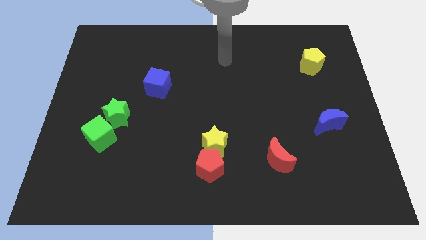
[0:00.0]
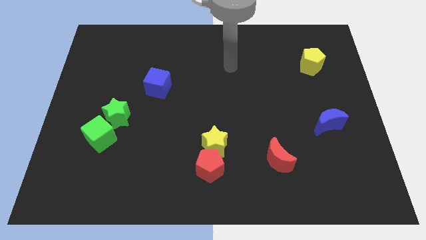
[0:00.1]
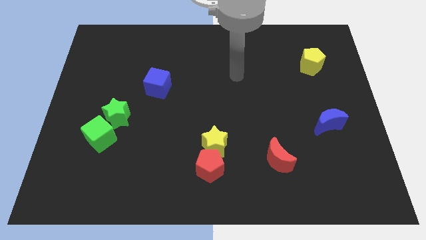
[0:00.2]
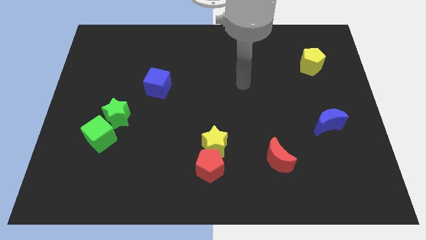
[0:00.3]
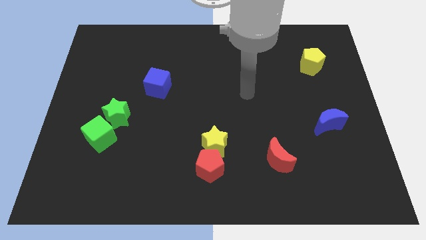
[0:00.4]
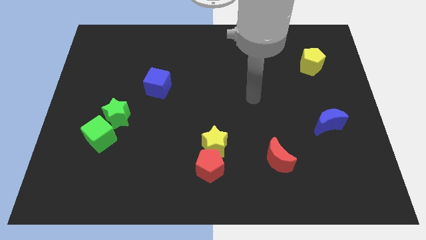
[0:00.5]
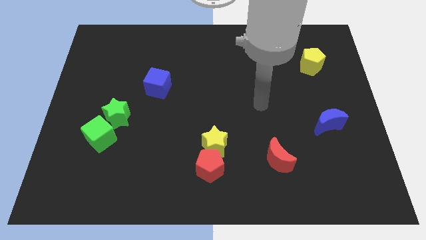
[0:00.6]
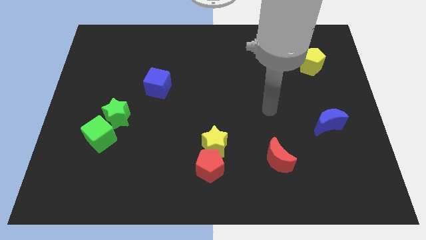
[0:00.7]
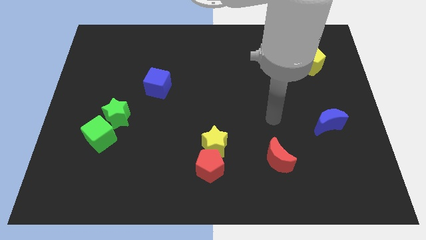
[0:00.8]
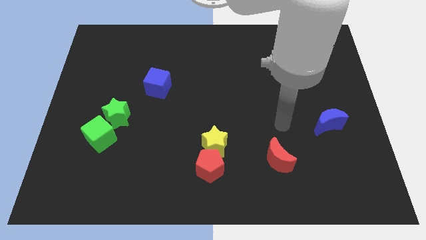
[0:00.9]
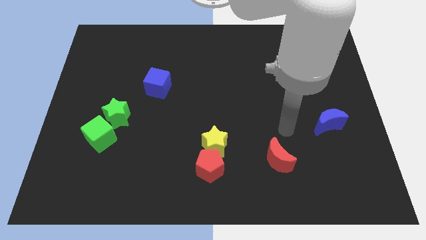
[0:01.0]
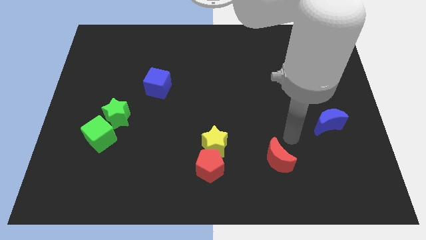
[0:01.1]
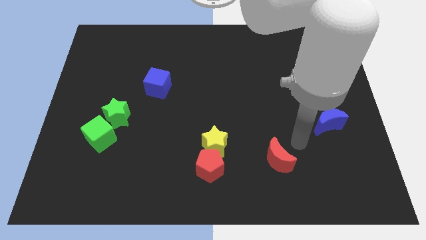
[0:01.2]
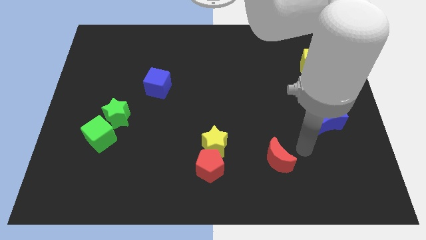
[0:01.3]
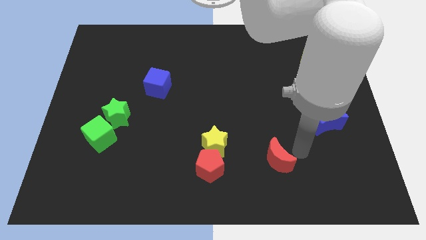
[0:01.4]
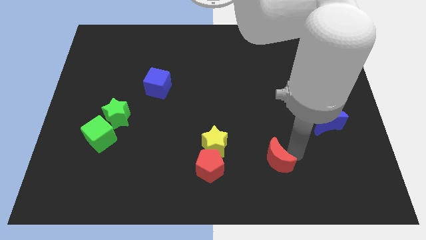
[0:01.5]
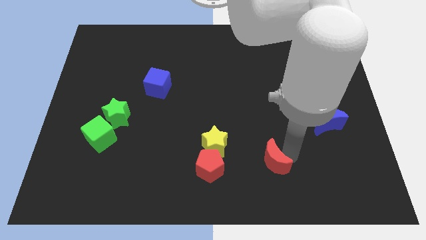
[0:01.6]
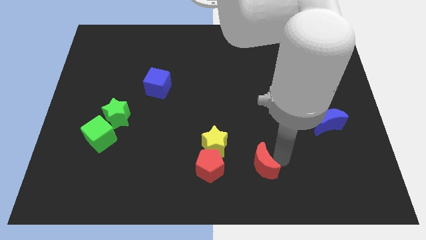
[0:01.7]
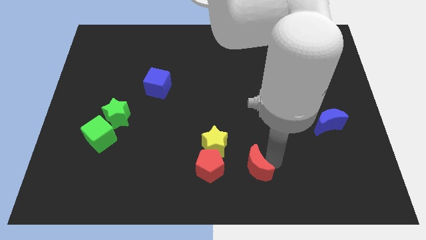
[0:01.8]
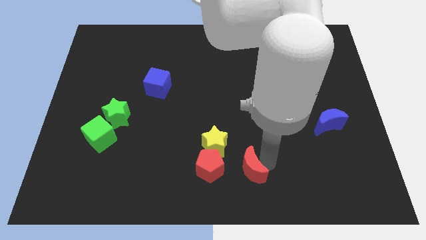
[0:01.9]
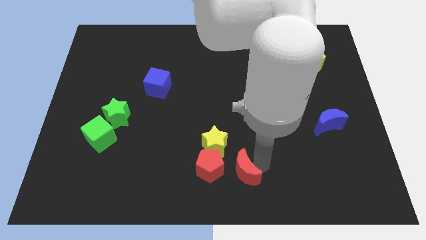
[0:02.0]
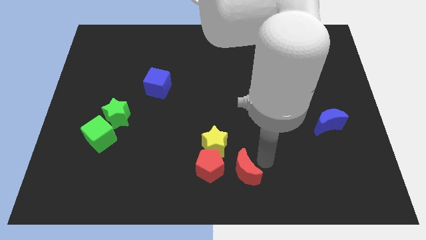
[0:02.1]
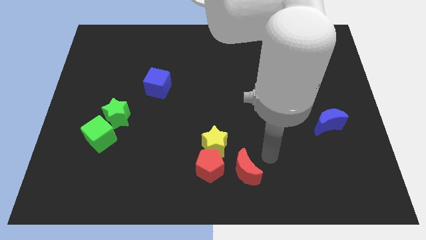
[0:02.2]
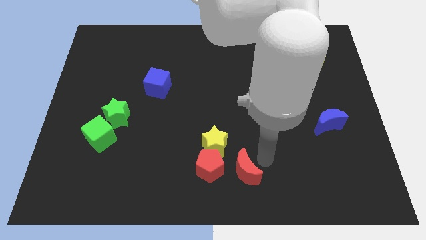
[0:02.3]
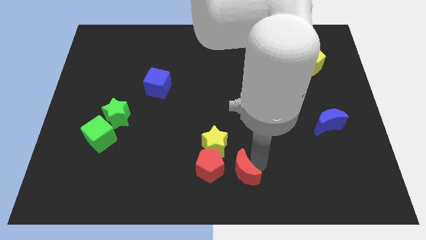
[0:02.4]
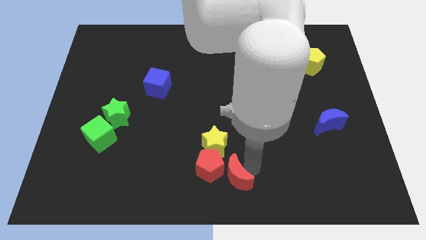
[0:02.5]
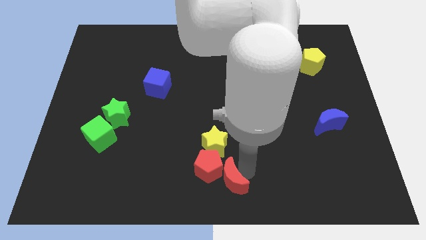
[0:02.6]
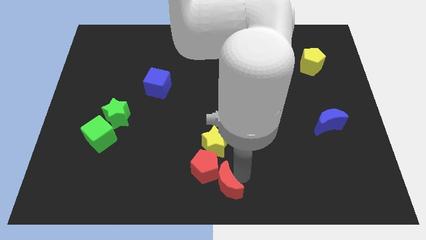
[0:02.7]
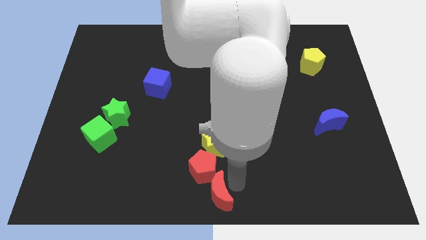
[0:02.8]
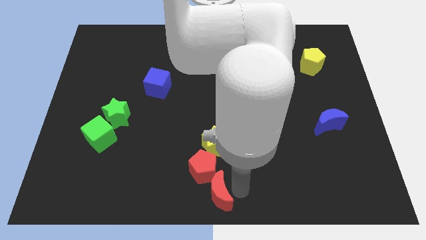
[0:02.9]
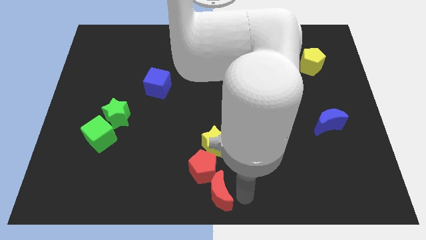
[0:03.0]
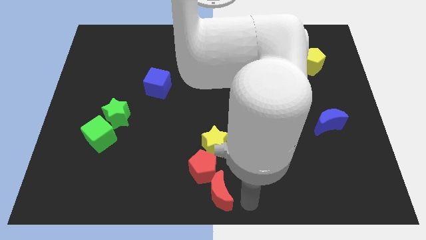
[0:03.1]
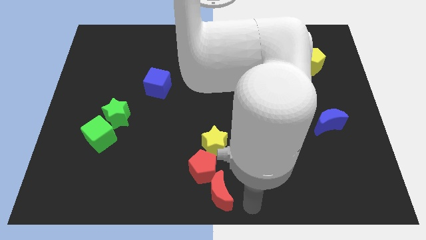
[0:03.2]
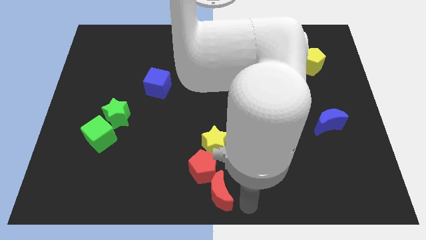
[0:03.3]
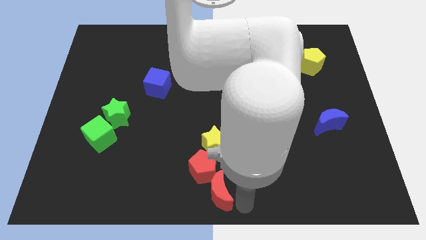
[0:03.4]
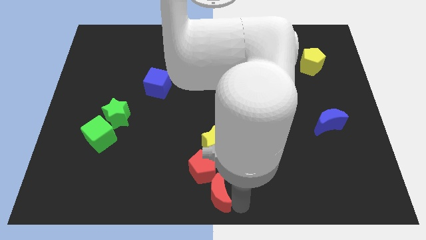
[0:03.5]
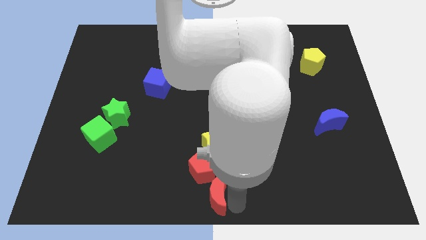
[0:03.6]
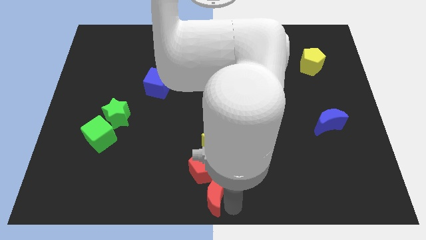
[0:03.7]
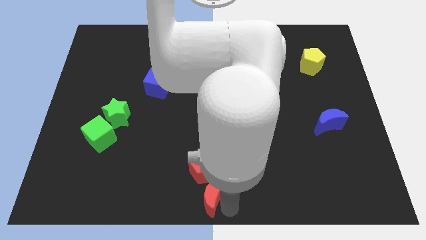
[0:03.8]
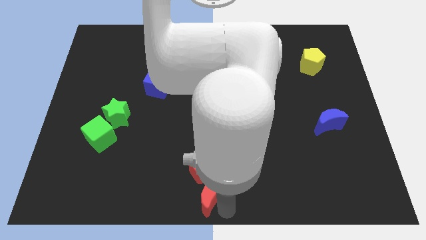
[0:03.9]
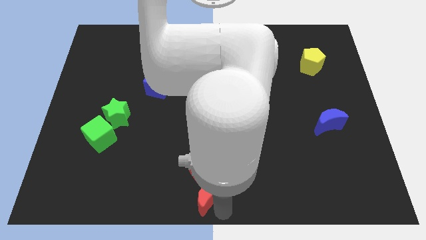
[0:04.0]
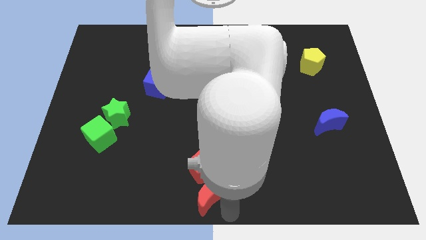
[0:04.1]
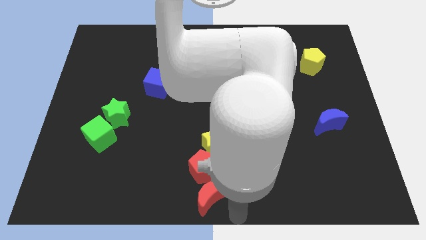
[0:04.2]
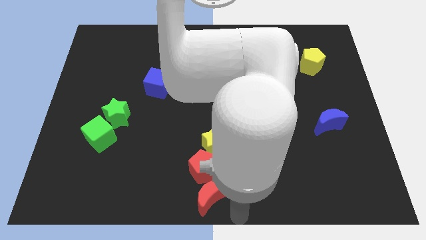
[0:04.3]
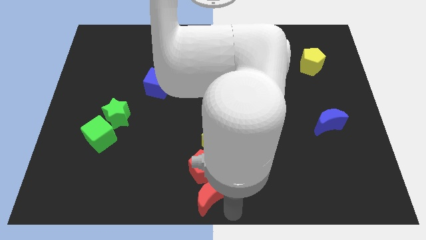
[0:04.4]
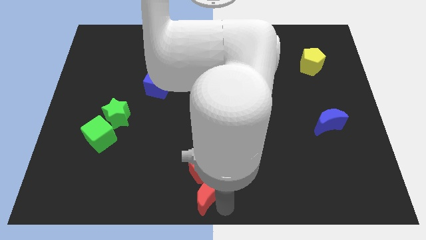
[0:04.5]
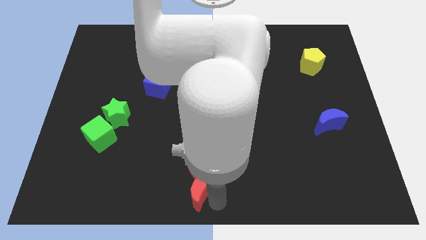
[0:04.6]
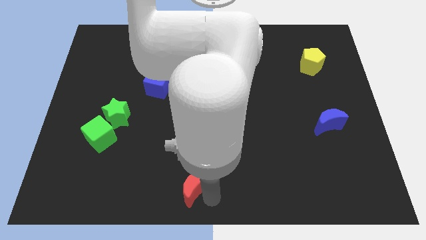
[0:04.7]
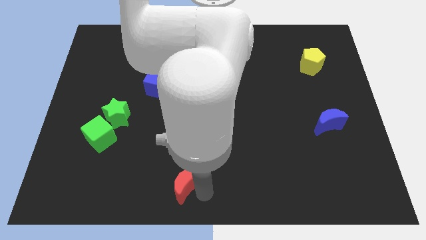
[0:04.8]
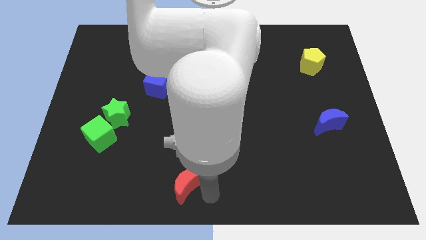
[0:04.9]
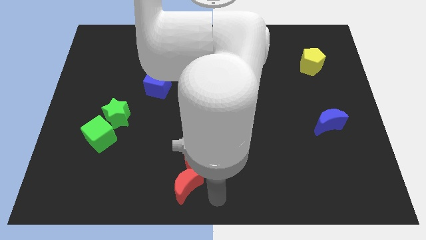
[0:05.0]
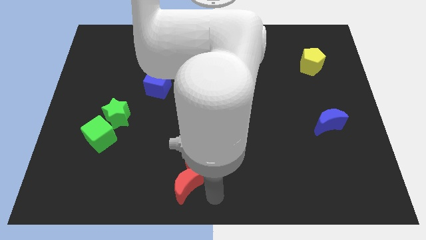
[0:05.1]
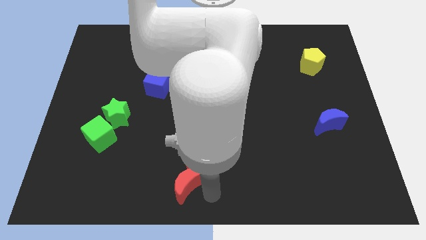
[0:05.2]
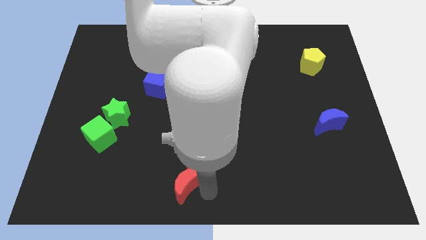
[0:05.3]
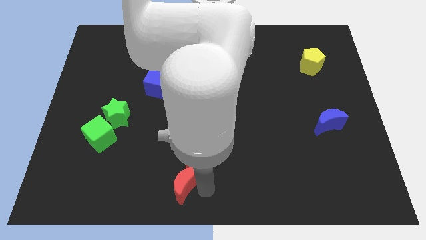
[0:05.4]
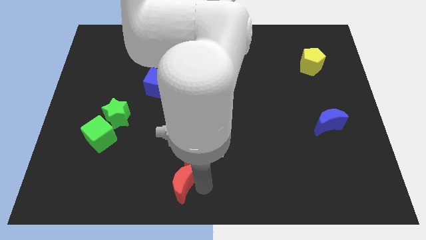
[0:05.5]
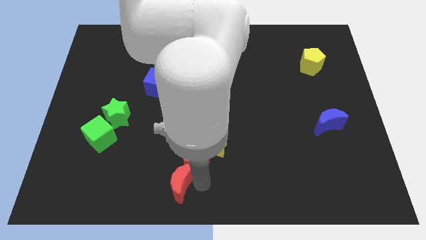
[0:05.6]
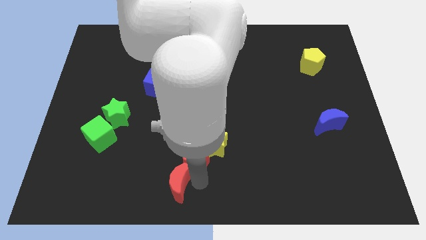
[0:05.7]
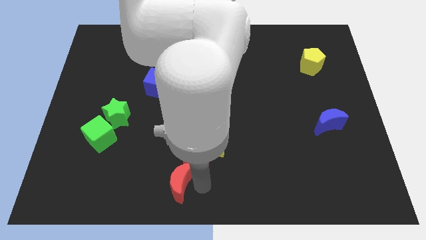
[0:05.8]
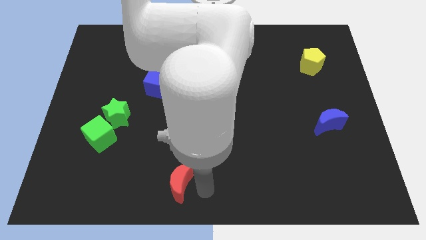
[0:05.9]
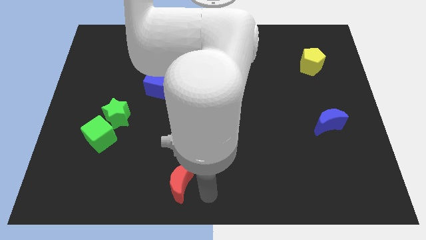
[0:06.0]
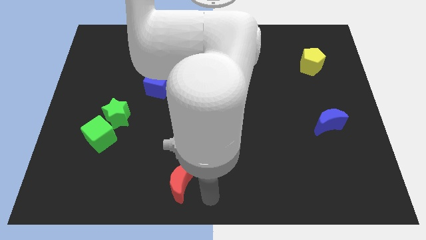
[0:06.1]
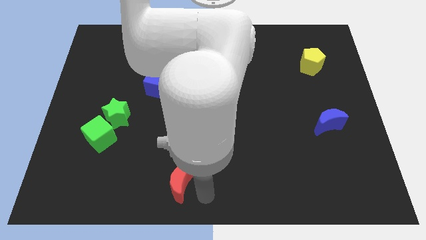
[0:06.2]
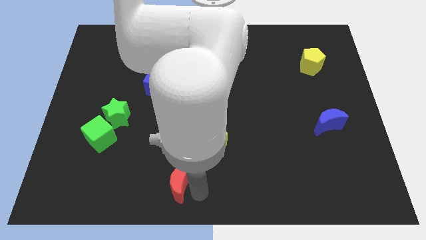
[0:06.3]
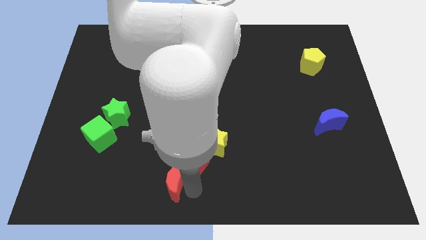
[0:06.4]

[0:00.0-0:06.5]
push the red moon to the left

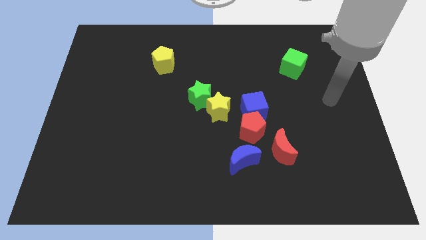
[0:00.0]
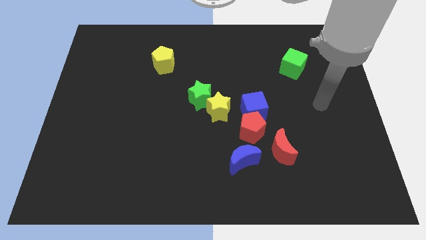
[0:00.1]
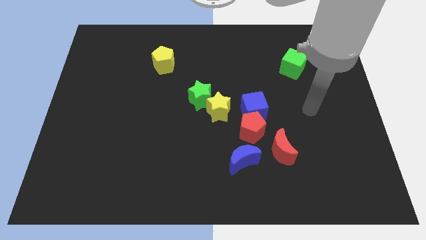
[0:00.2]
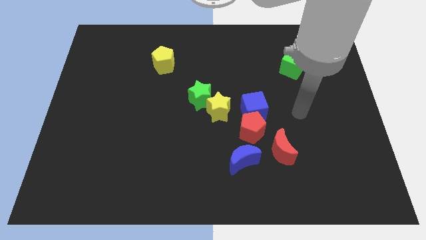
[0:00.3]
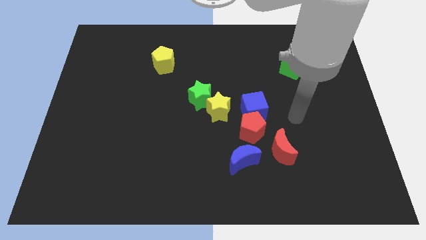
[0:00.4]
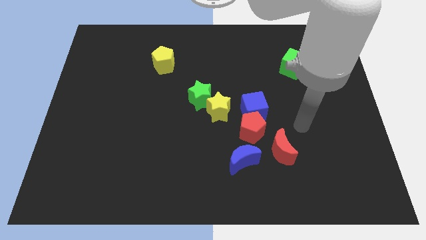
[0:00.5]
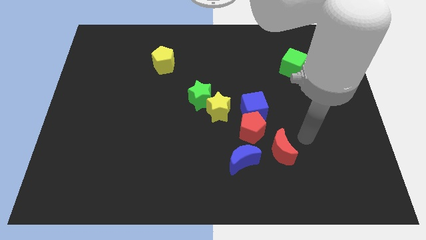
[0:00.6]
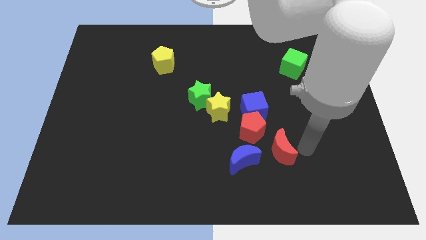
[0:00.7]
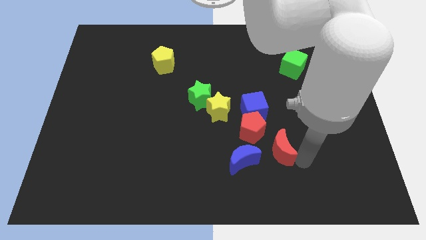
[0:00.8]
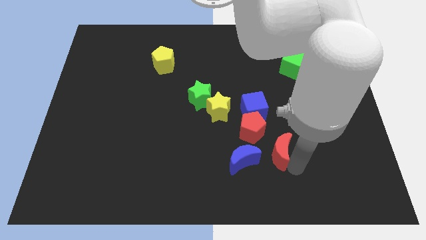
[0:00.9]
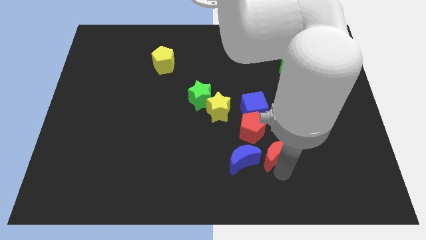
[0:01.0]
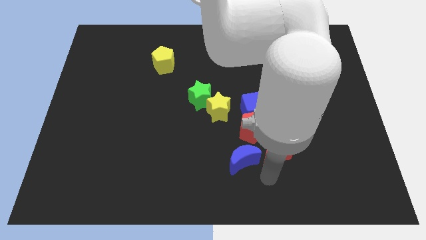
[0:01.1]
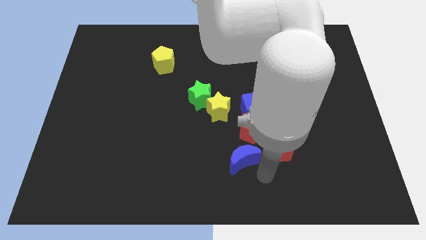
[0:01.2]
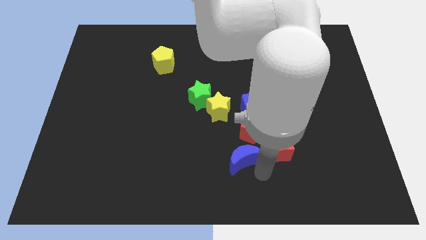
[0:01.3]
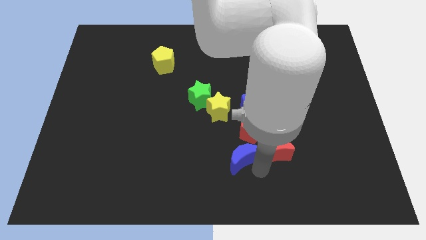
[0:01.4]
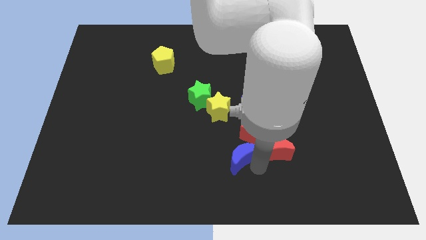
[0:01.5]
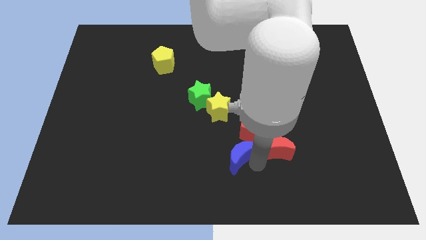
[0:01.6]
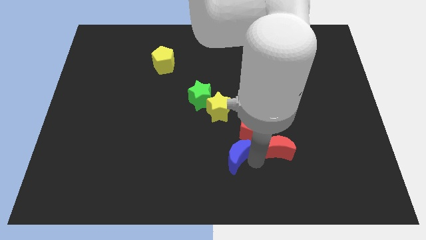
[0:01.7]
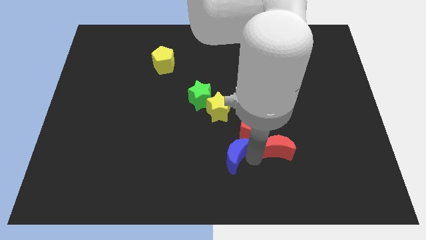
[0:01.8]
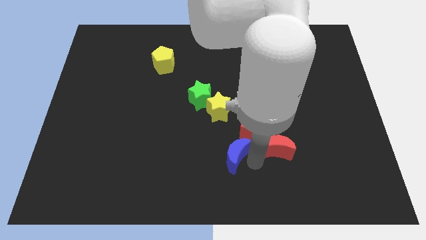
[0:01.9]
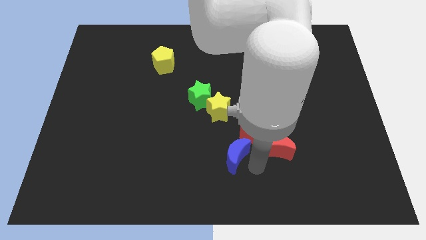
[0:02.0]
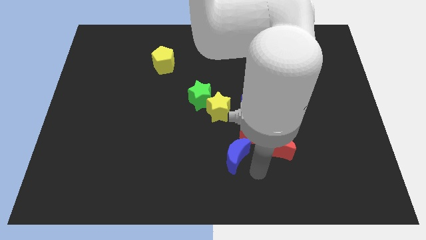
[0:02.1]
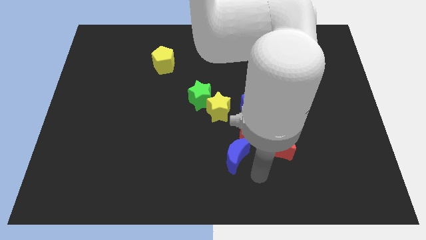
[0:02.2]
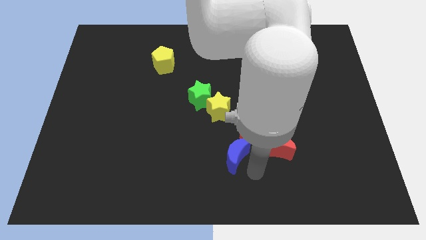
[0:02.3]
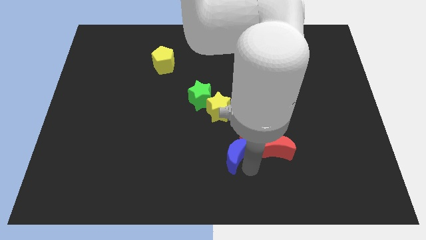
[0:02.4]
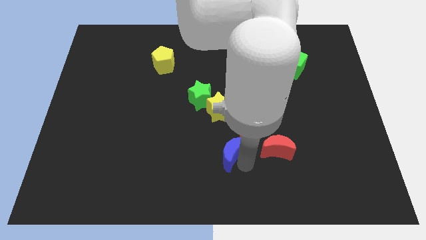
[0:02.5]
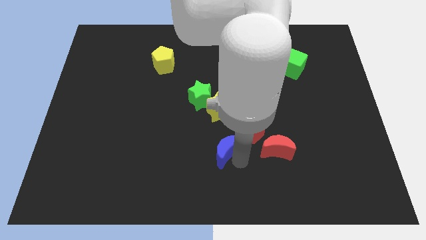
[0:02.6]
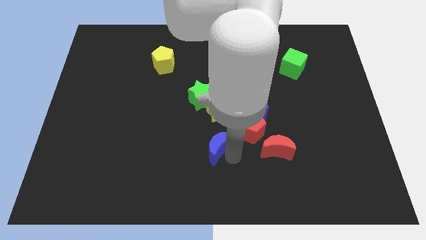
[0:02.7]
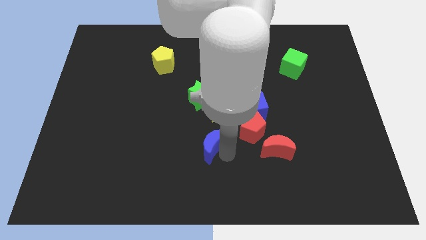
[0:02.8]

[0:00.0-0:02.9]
push the blue moon a bit upwards and then to the left
